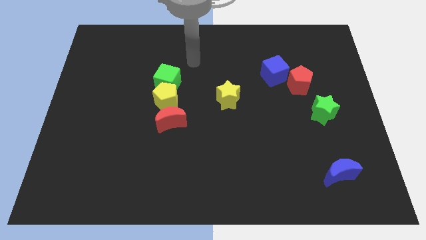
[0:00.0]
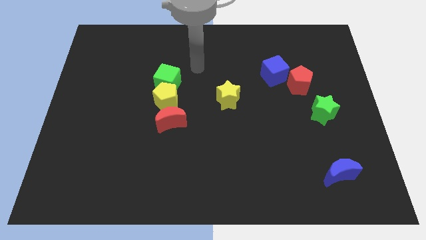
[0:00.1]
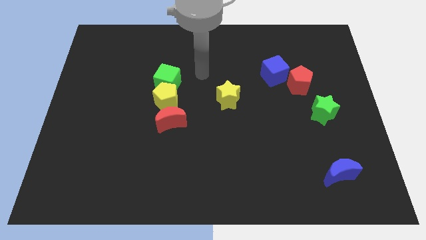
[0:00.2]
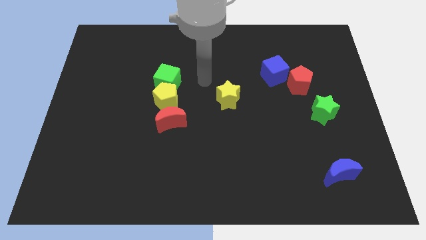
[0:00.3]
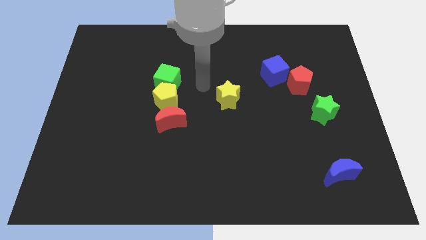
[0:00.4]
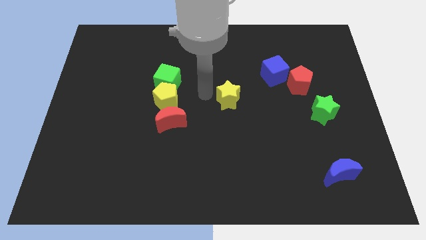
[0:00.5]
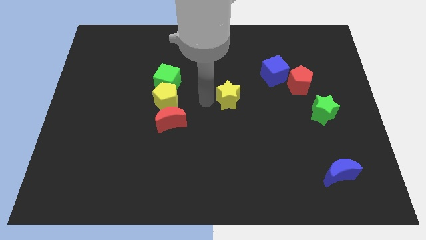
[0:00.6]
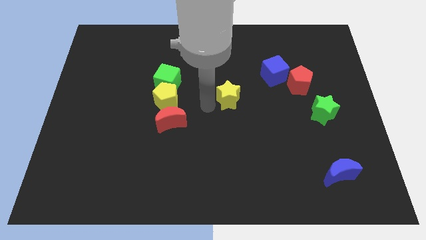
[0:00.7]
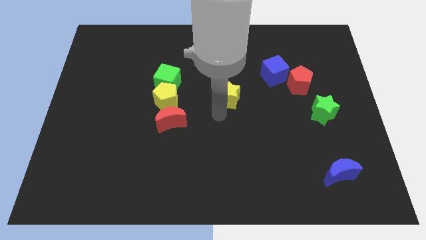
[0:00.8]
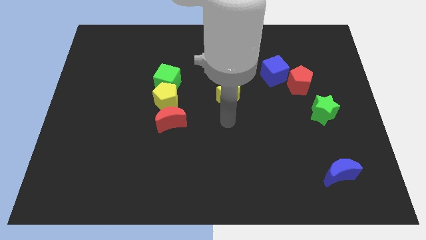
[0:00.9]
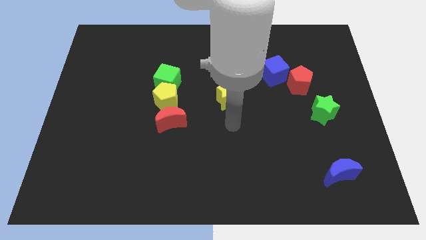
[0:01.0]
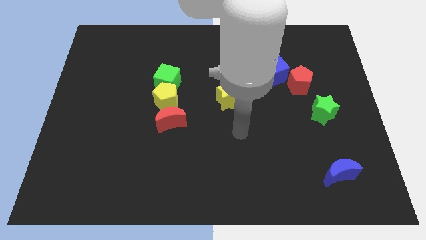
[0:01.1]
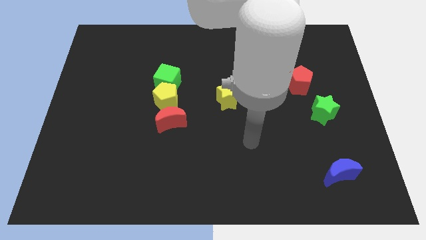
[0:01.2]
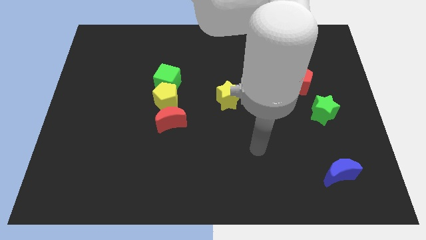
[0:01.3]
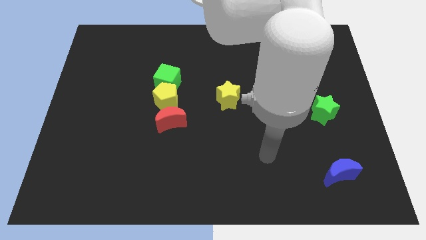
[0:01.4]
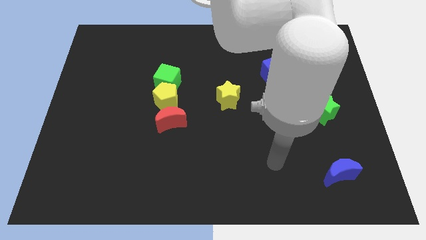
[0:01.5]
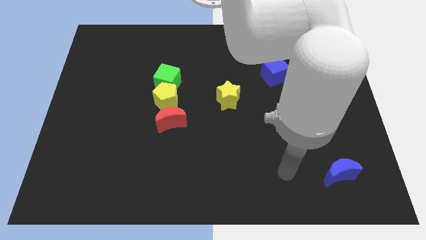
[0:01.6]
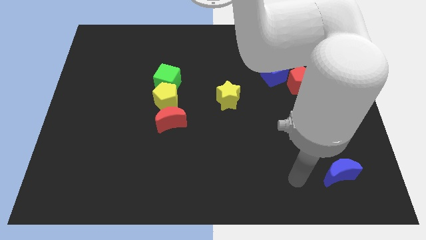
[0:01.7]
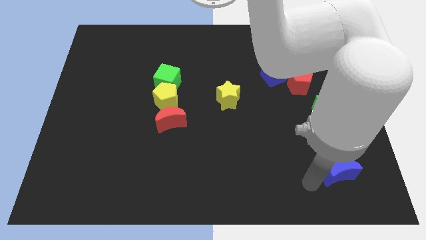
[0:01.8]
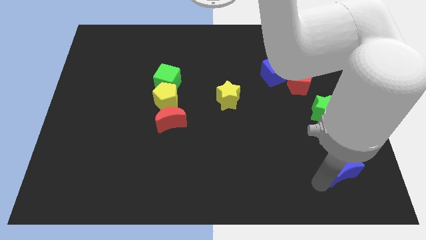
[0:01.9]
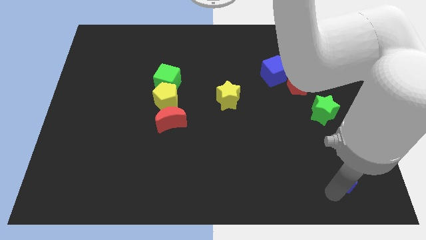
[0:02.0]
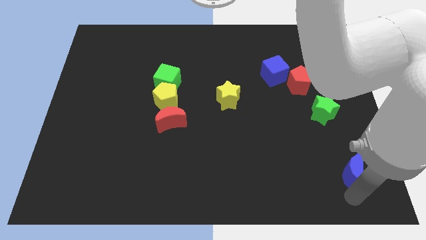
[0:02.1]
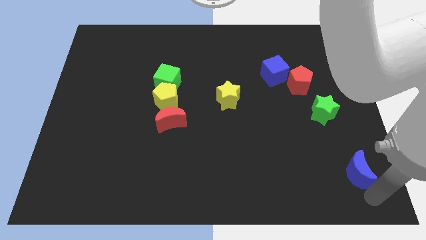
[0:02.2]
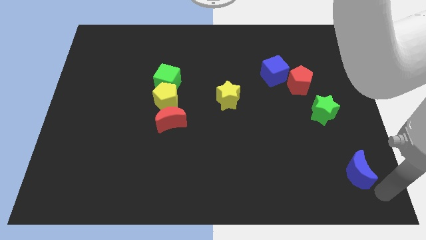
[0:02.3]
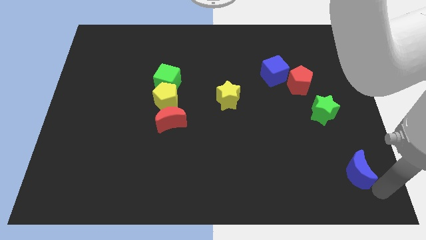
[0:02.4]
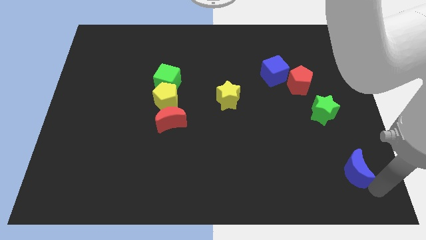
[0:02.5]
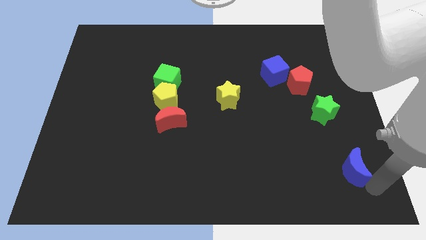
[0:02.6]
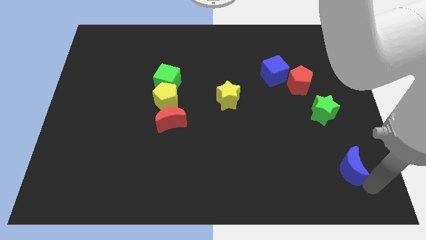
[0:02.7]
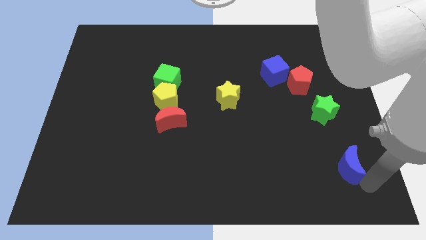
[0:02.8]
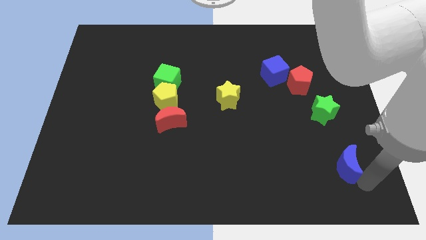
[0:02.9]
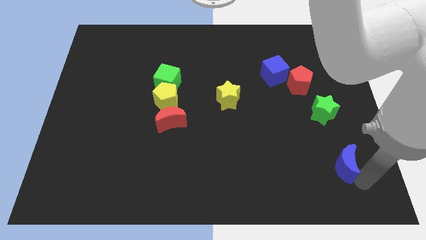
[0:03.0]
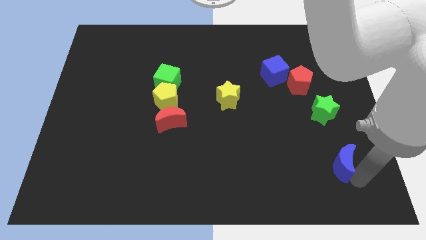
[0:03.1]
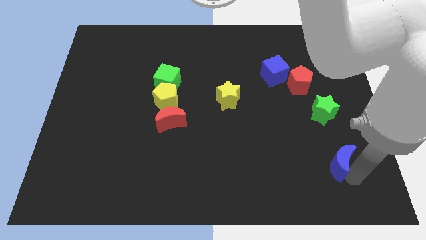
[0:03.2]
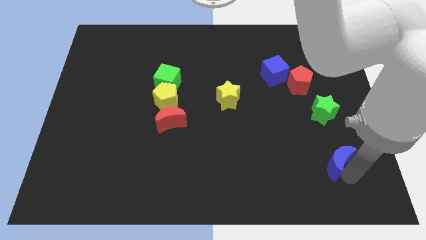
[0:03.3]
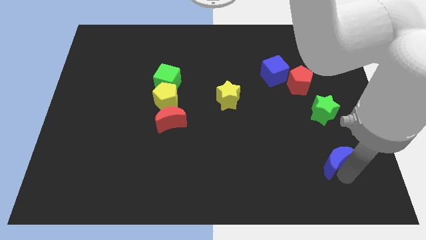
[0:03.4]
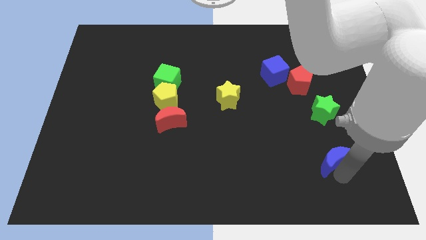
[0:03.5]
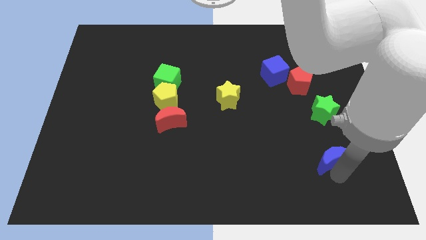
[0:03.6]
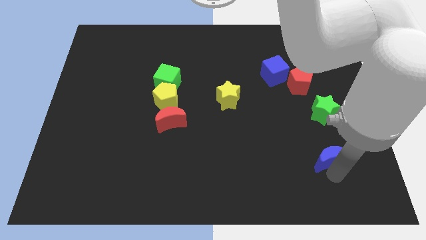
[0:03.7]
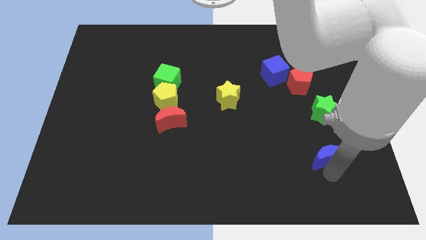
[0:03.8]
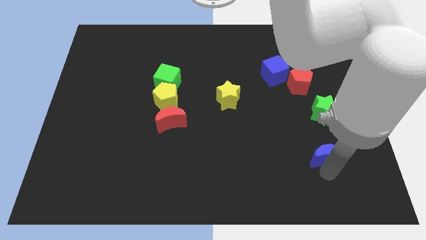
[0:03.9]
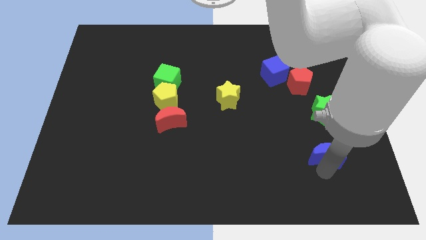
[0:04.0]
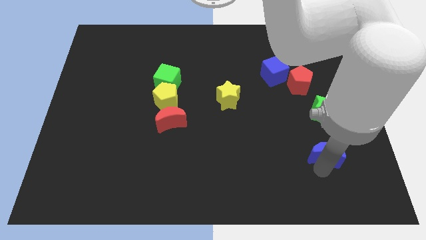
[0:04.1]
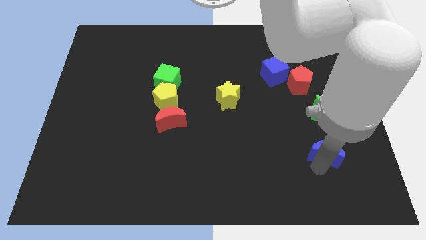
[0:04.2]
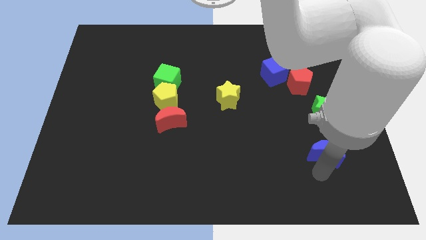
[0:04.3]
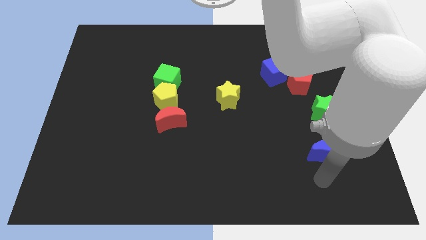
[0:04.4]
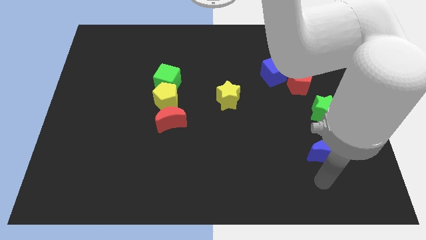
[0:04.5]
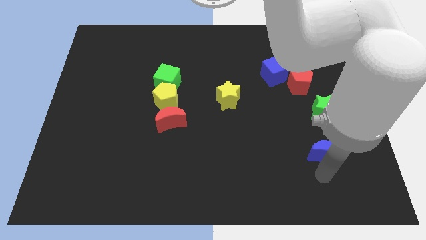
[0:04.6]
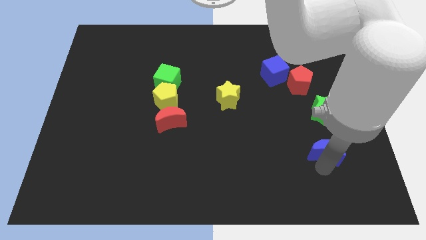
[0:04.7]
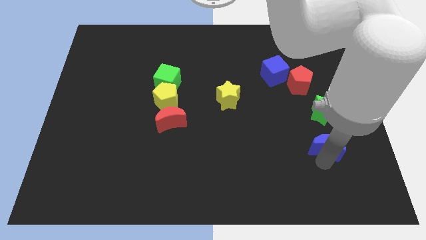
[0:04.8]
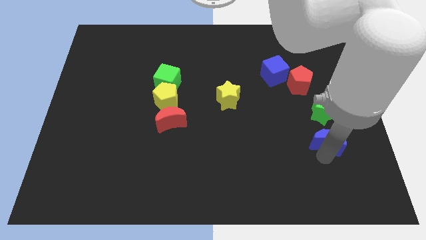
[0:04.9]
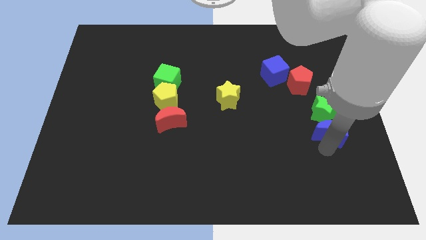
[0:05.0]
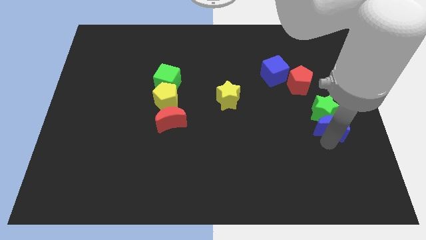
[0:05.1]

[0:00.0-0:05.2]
push the blue moon next to the green star

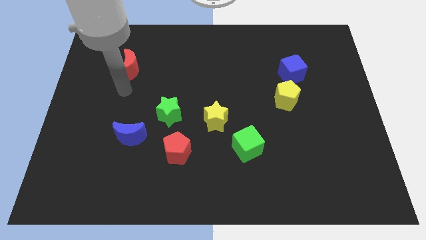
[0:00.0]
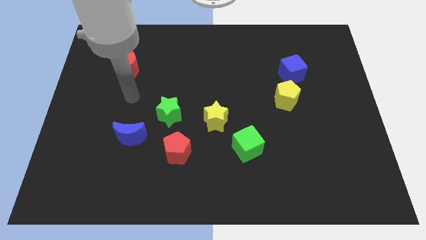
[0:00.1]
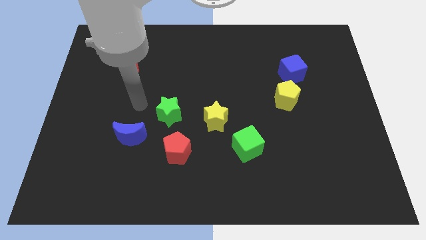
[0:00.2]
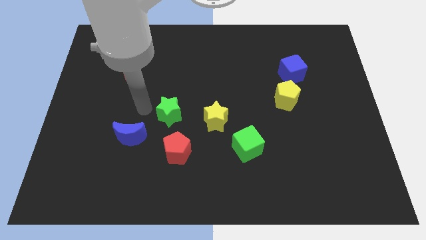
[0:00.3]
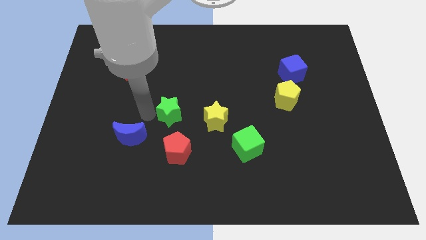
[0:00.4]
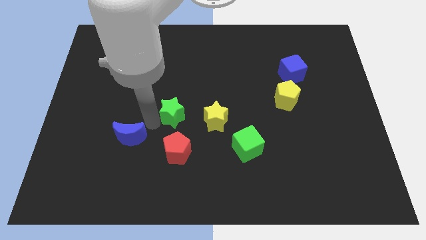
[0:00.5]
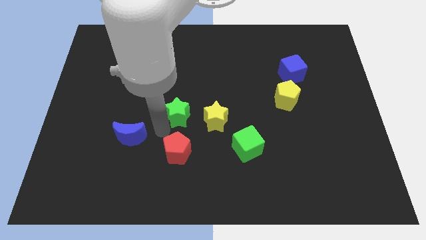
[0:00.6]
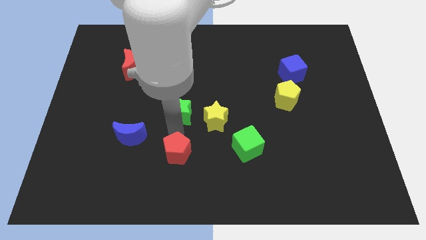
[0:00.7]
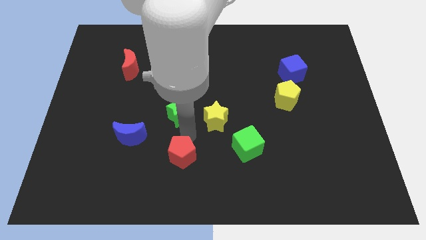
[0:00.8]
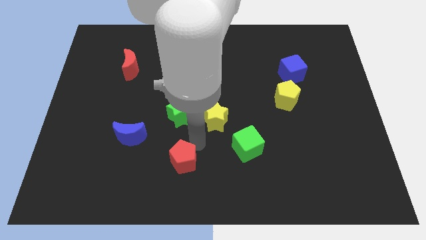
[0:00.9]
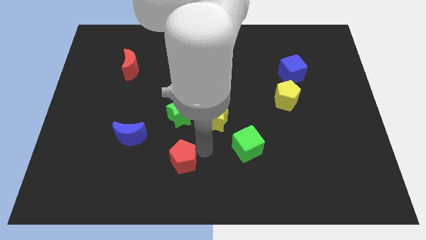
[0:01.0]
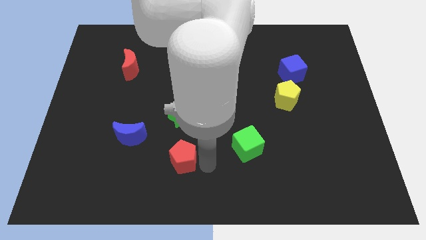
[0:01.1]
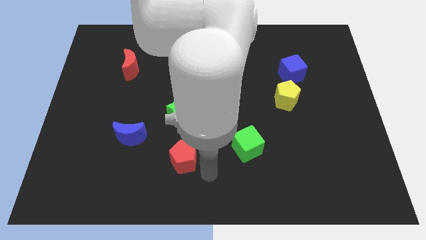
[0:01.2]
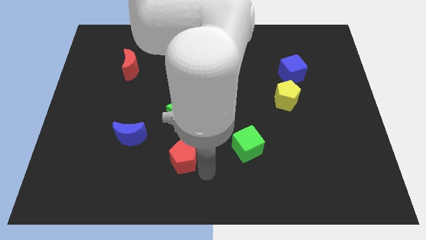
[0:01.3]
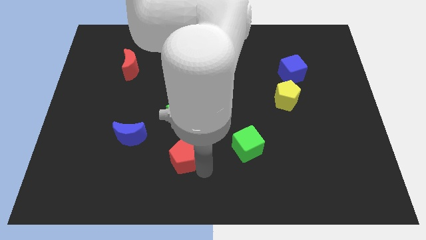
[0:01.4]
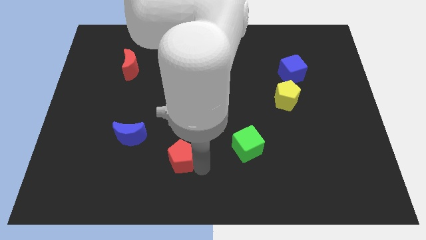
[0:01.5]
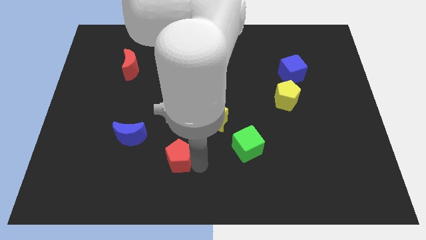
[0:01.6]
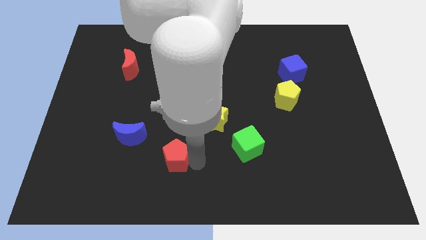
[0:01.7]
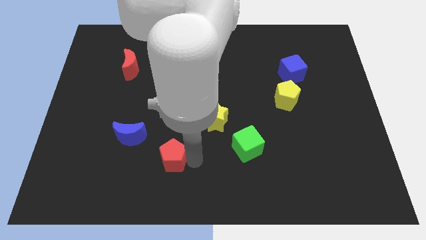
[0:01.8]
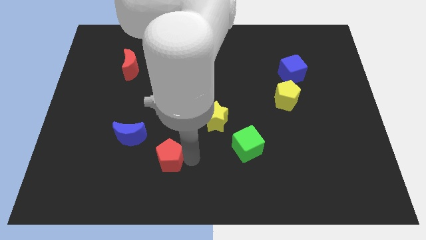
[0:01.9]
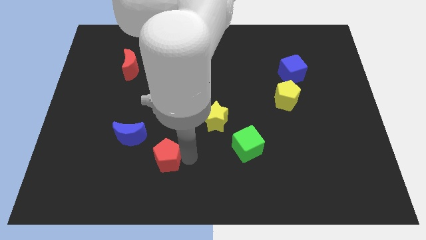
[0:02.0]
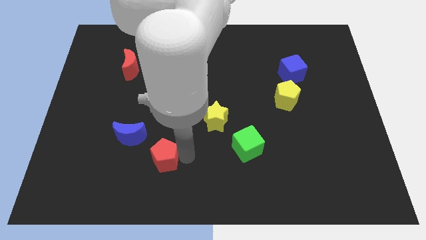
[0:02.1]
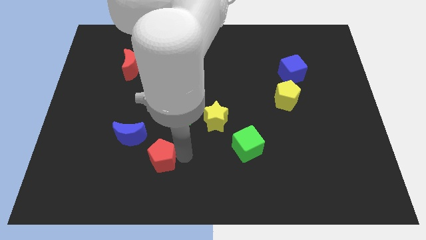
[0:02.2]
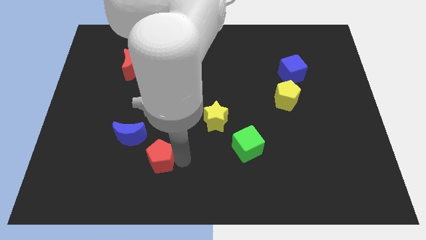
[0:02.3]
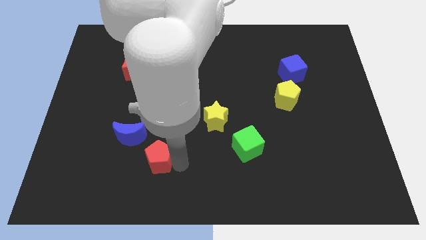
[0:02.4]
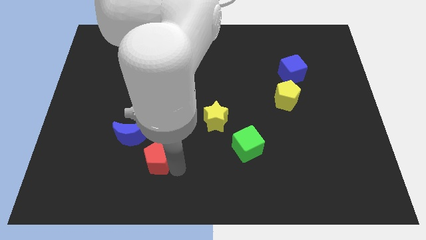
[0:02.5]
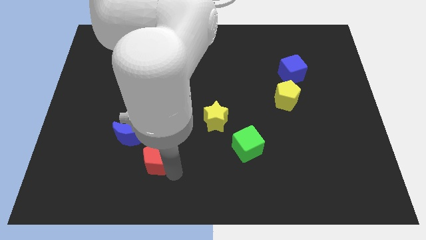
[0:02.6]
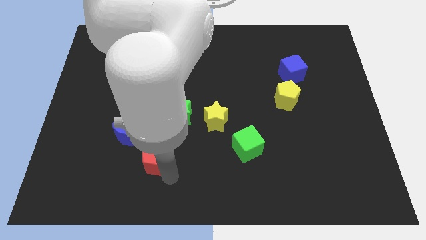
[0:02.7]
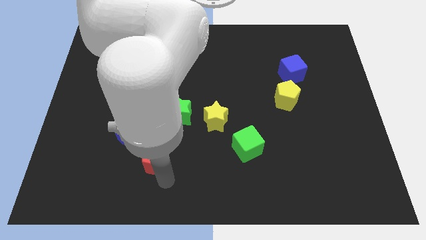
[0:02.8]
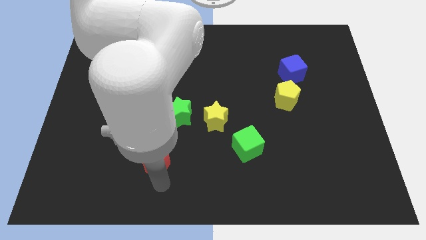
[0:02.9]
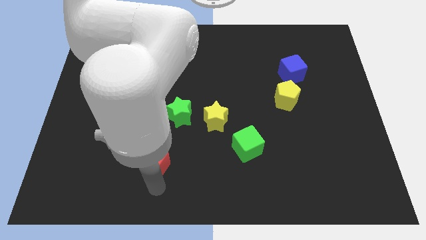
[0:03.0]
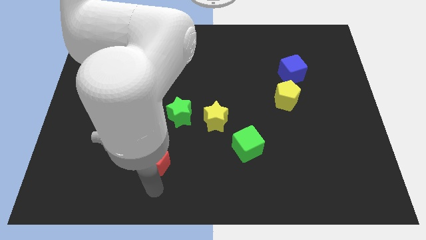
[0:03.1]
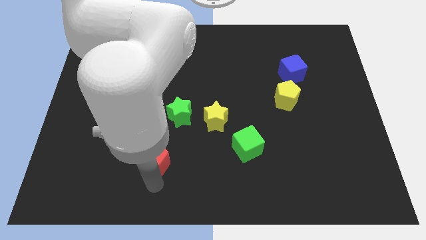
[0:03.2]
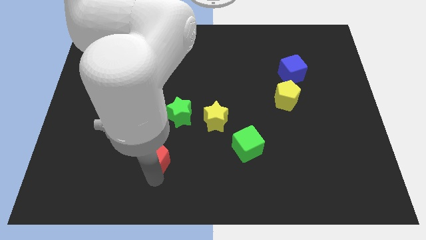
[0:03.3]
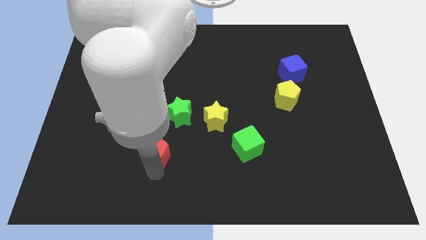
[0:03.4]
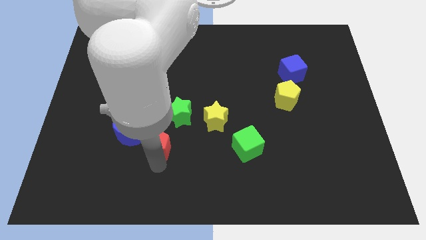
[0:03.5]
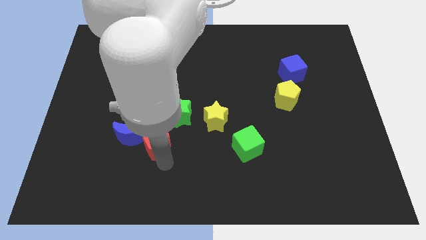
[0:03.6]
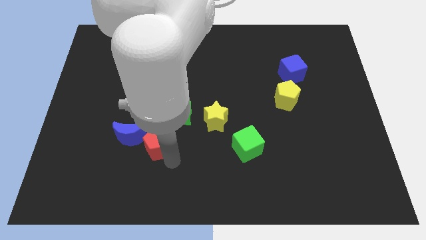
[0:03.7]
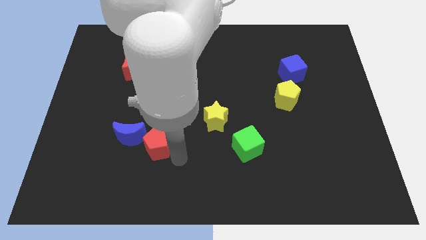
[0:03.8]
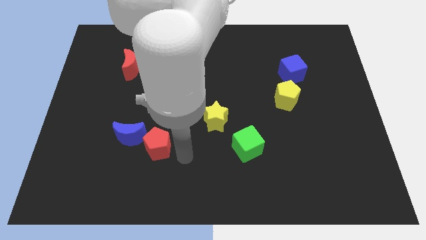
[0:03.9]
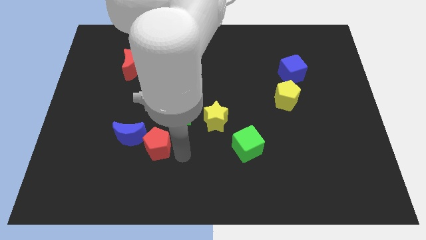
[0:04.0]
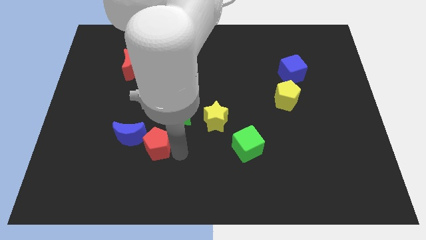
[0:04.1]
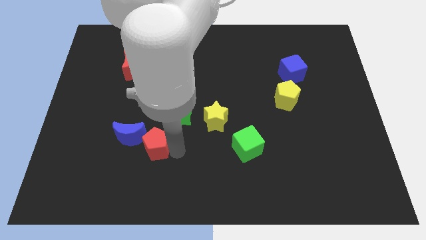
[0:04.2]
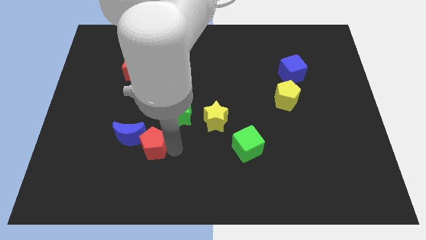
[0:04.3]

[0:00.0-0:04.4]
move the red pentagon next to the blue moon
